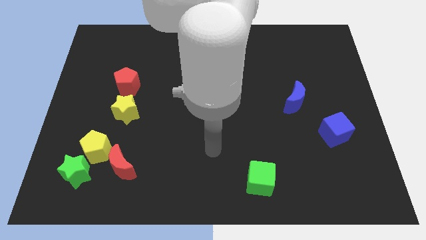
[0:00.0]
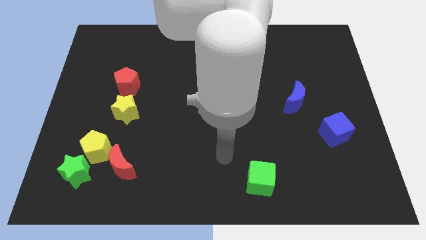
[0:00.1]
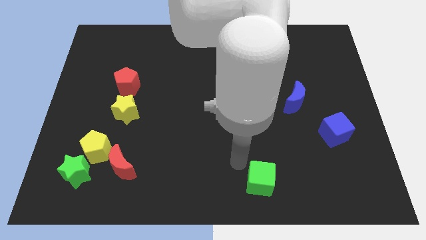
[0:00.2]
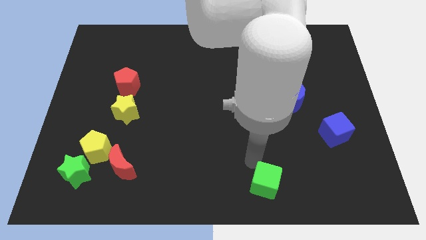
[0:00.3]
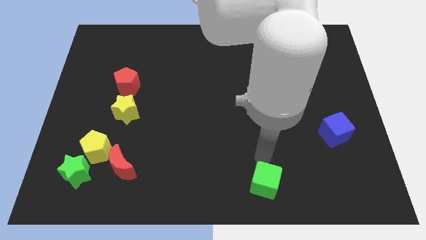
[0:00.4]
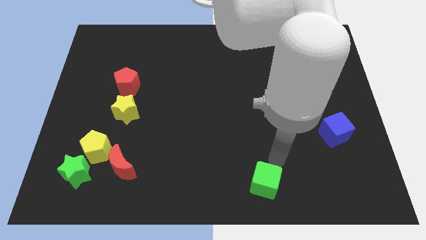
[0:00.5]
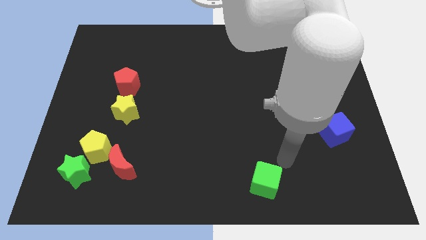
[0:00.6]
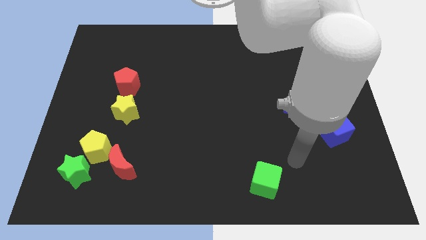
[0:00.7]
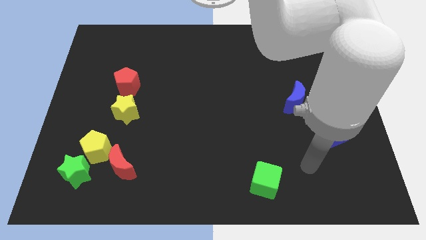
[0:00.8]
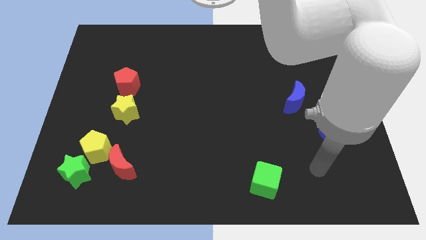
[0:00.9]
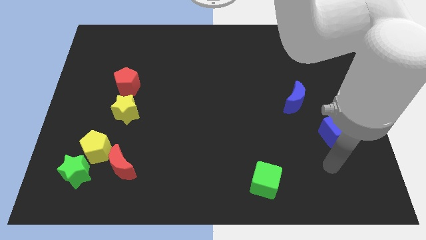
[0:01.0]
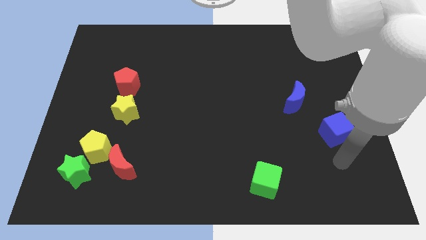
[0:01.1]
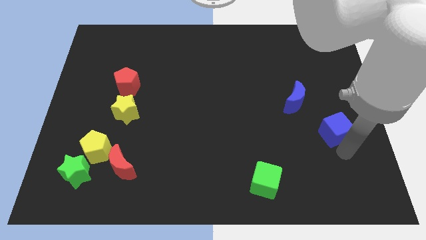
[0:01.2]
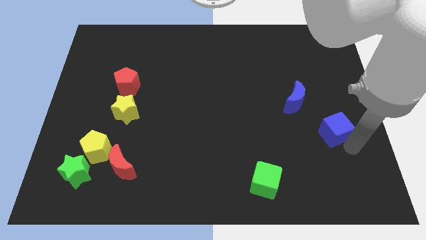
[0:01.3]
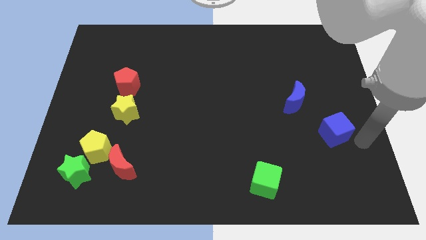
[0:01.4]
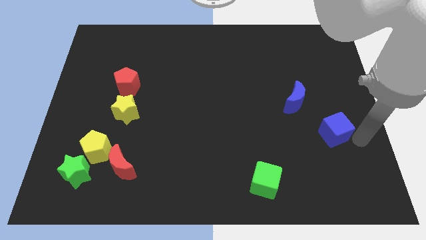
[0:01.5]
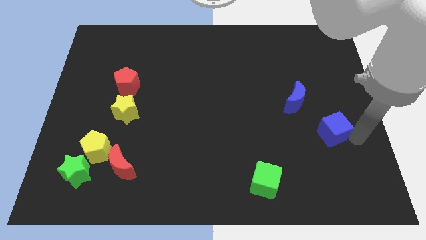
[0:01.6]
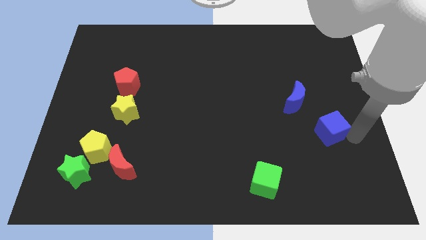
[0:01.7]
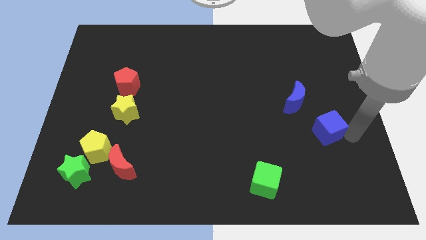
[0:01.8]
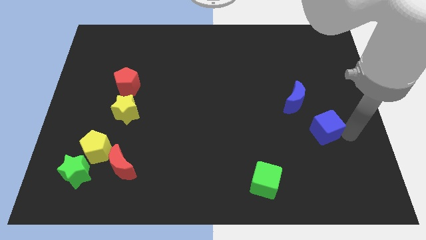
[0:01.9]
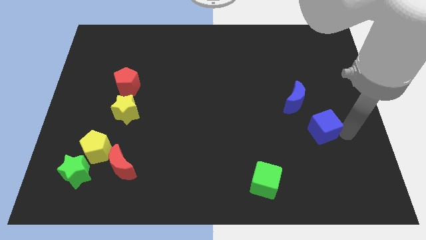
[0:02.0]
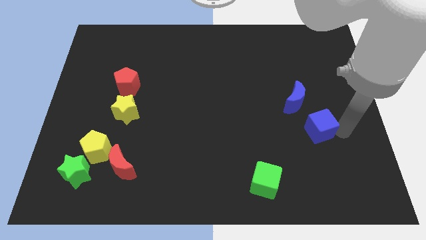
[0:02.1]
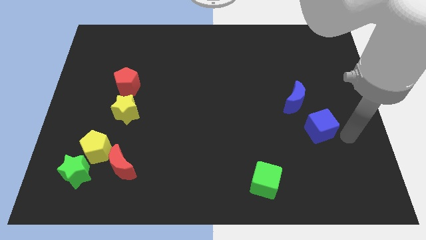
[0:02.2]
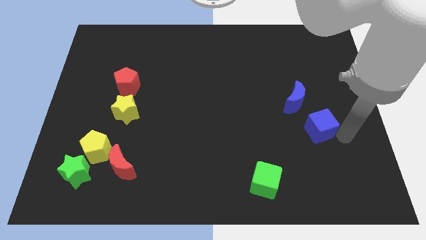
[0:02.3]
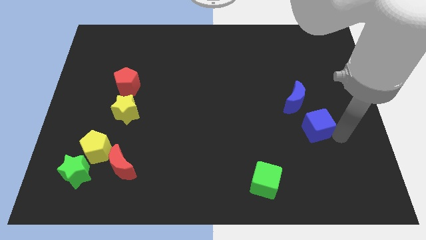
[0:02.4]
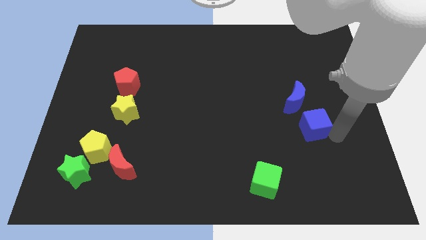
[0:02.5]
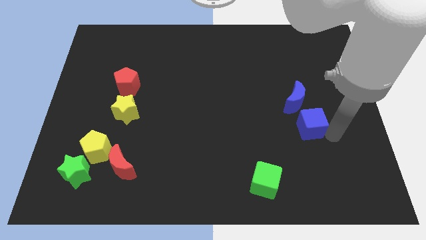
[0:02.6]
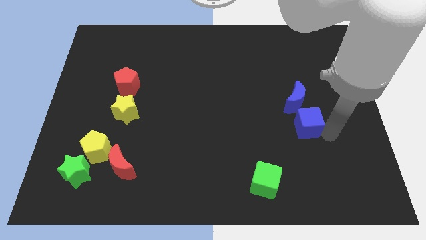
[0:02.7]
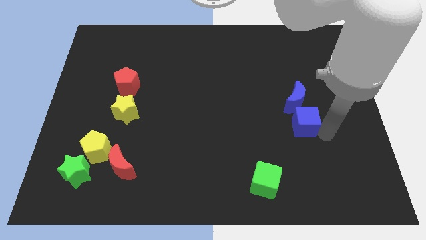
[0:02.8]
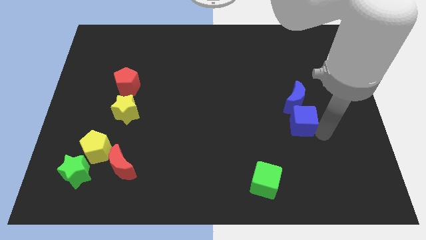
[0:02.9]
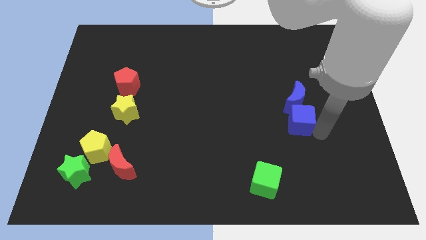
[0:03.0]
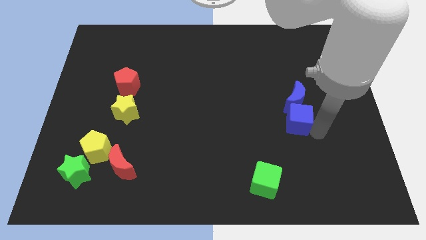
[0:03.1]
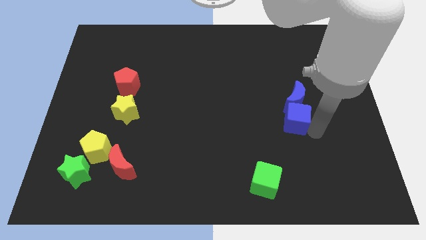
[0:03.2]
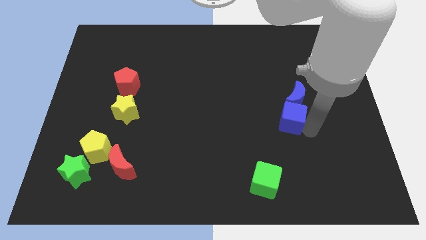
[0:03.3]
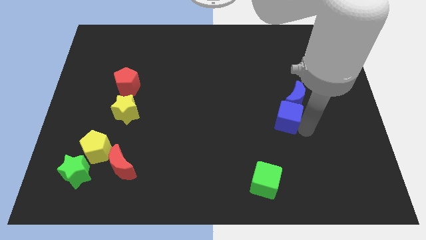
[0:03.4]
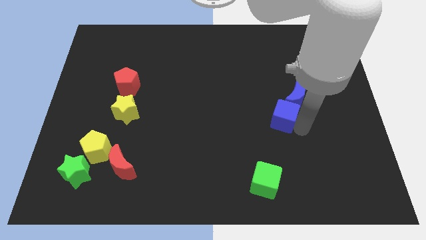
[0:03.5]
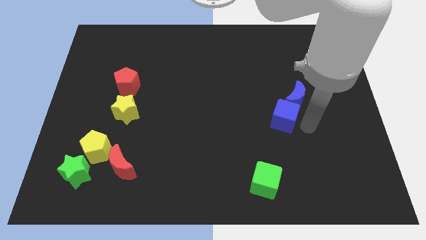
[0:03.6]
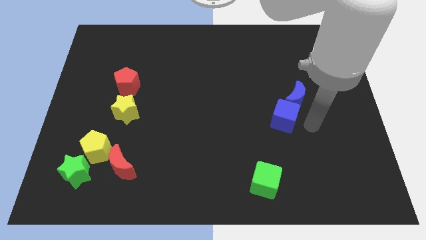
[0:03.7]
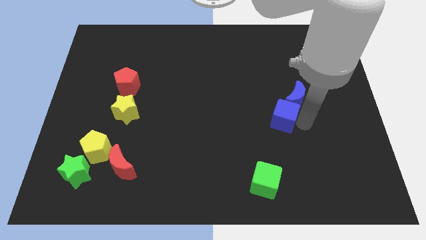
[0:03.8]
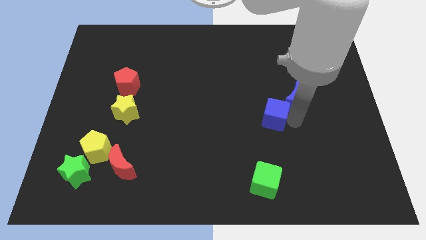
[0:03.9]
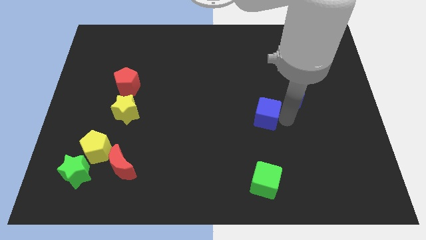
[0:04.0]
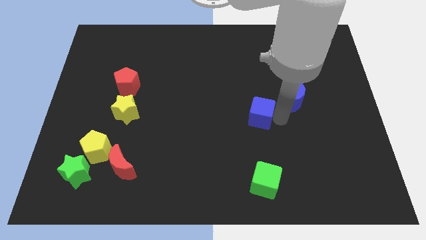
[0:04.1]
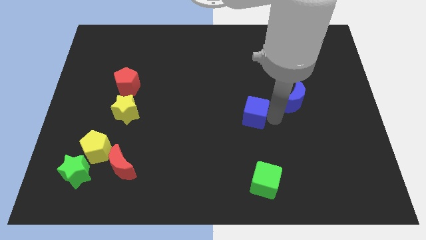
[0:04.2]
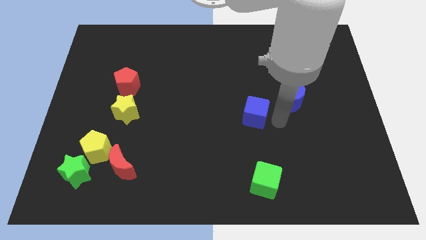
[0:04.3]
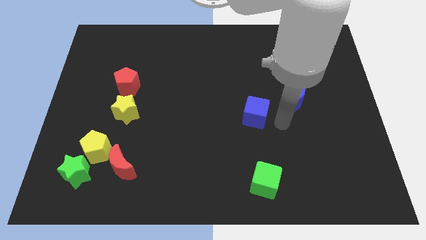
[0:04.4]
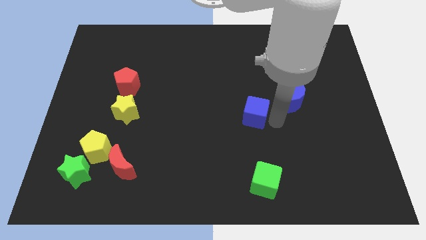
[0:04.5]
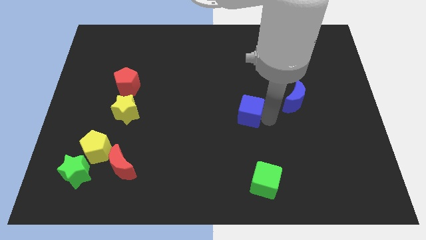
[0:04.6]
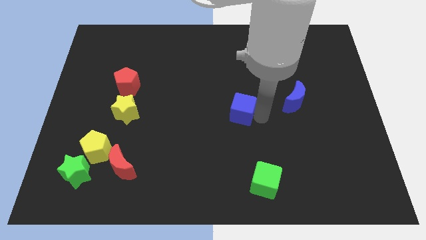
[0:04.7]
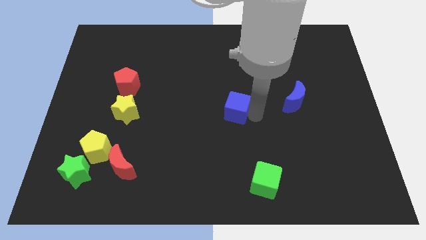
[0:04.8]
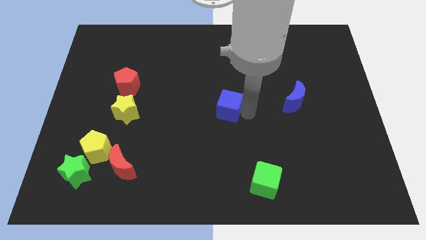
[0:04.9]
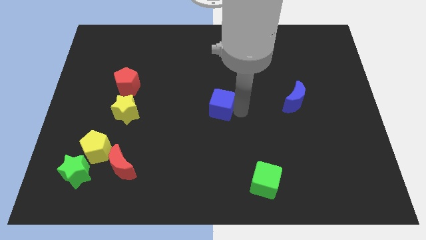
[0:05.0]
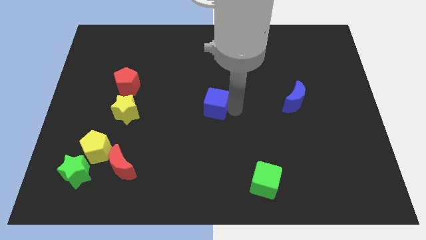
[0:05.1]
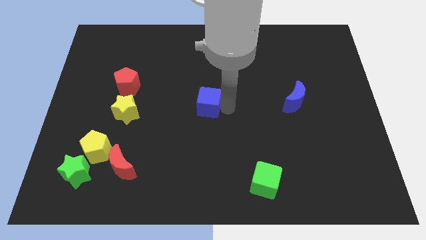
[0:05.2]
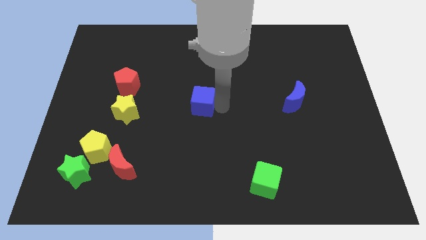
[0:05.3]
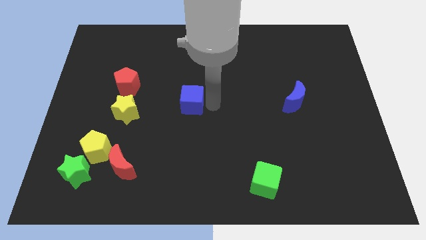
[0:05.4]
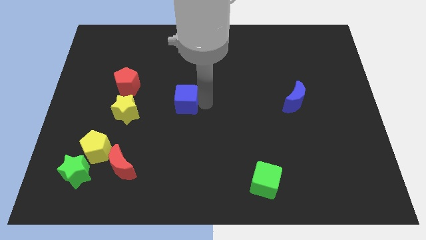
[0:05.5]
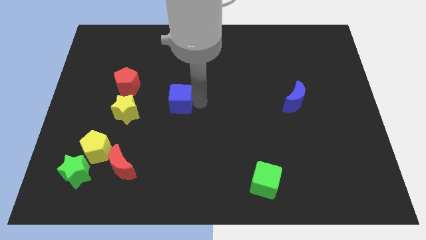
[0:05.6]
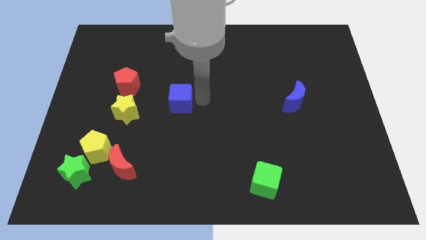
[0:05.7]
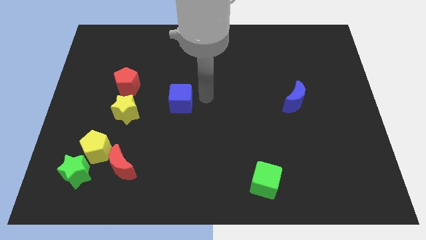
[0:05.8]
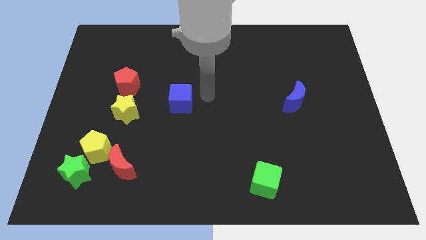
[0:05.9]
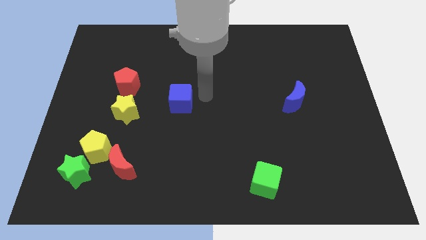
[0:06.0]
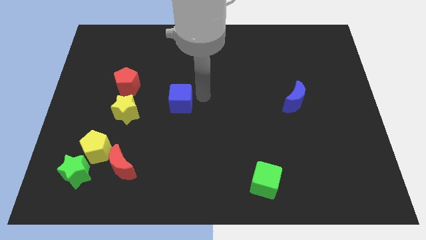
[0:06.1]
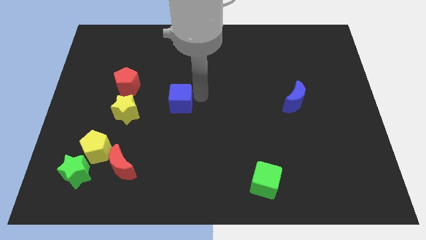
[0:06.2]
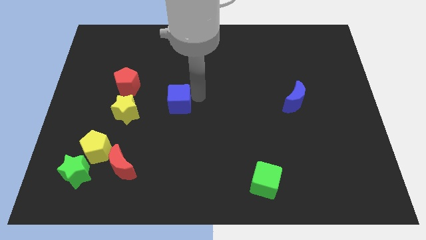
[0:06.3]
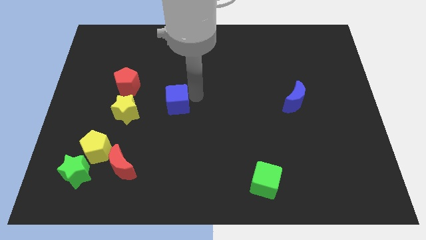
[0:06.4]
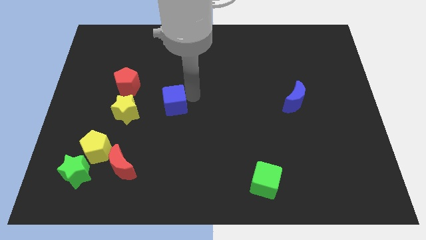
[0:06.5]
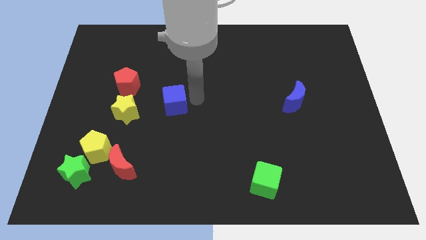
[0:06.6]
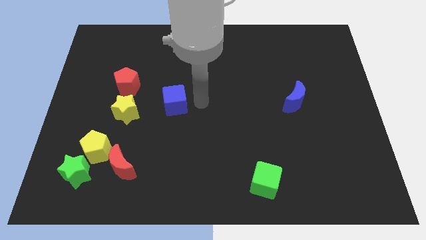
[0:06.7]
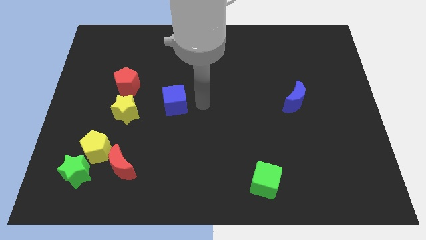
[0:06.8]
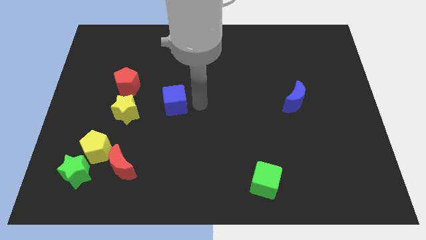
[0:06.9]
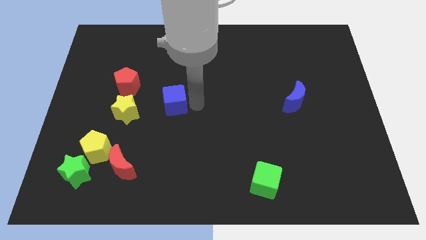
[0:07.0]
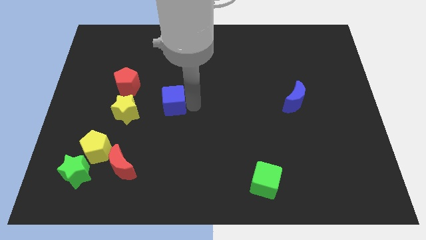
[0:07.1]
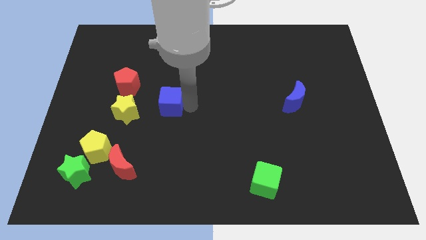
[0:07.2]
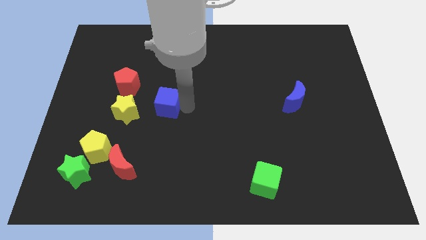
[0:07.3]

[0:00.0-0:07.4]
push the blue cube diagonally down and to the right of the red pentagon
